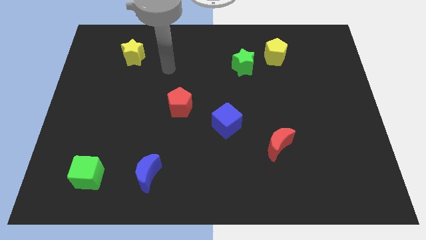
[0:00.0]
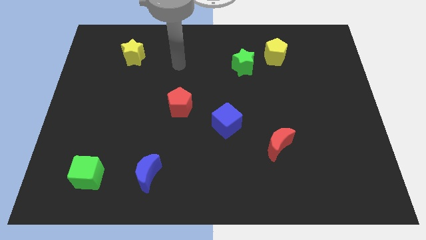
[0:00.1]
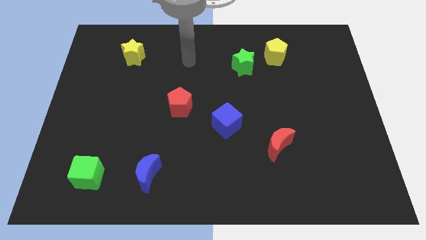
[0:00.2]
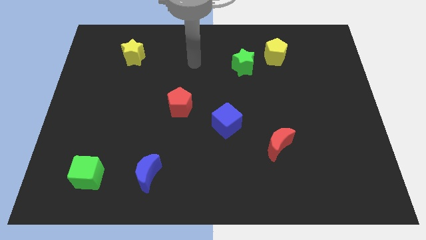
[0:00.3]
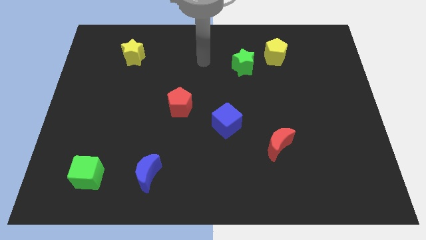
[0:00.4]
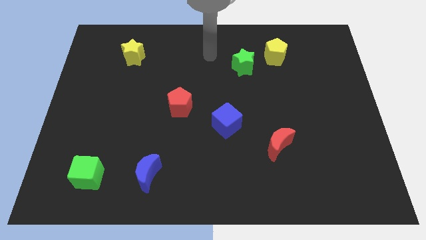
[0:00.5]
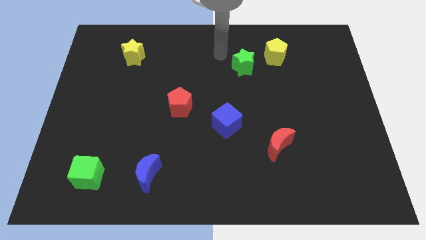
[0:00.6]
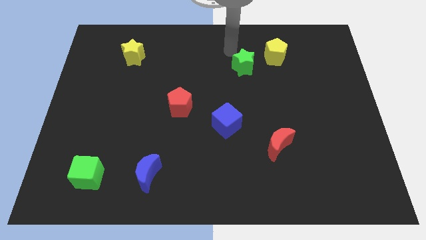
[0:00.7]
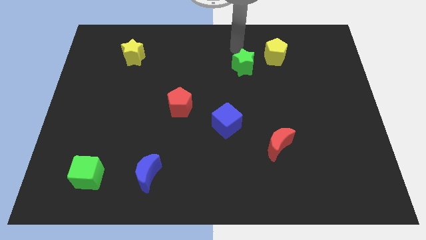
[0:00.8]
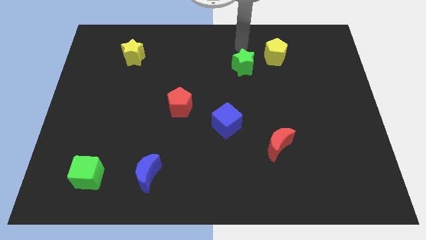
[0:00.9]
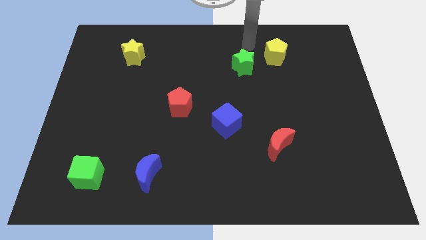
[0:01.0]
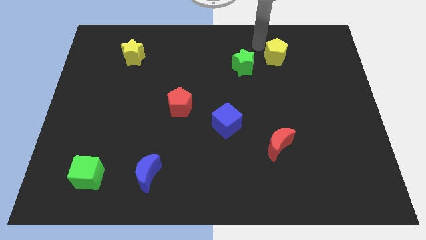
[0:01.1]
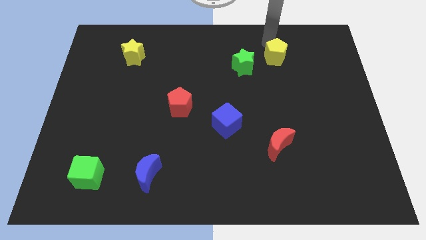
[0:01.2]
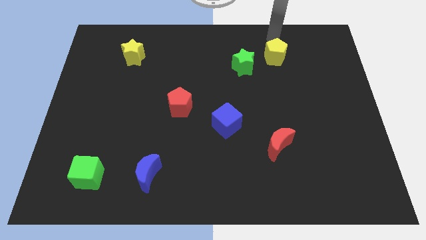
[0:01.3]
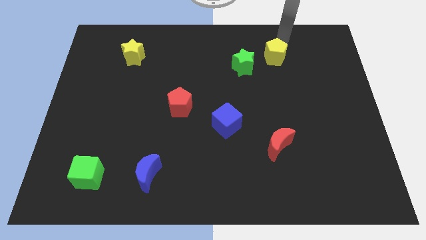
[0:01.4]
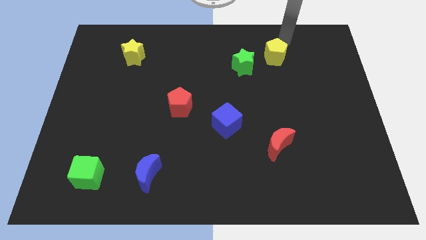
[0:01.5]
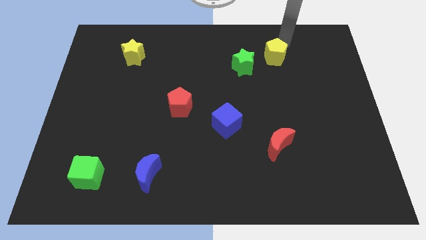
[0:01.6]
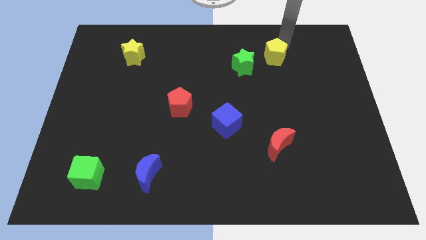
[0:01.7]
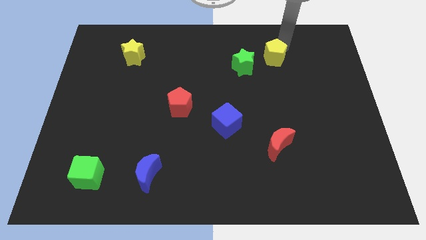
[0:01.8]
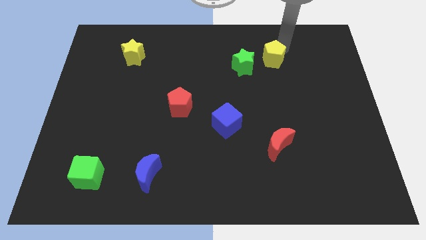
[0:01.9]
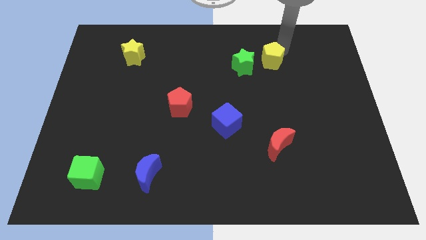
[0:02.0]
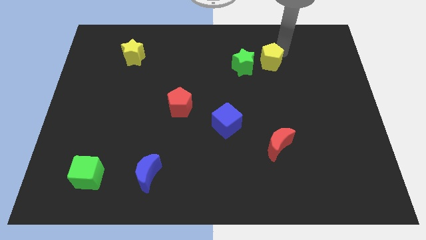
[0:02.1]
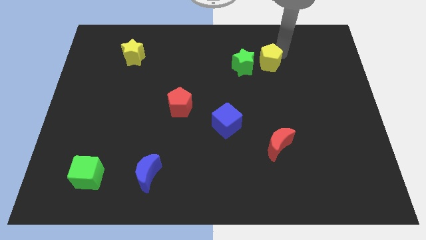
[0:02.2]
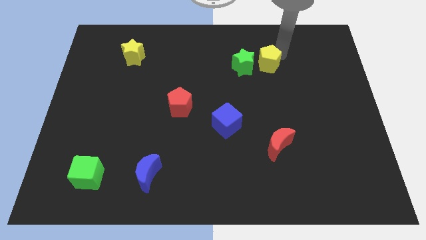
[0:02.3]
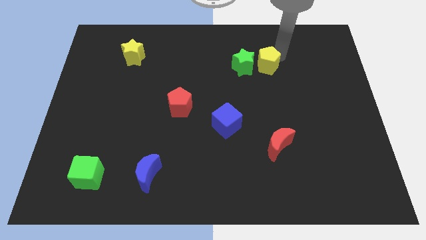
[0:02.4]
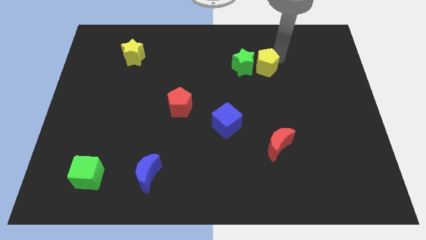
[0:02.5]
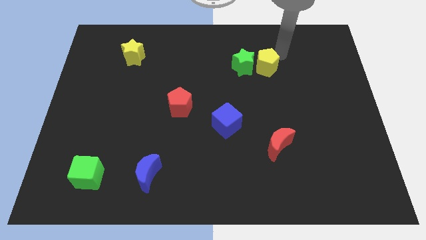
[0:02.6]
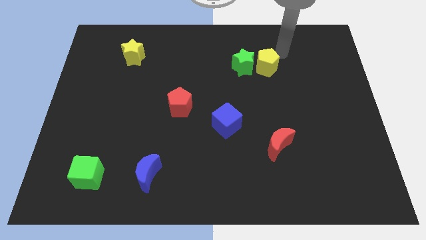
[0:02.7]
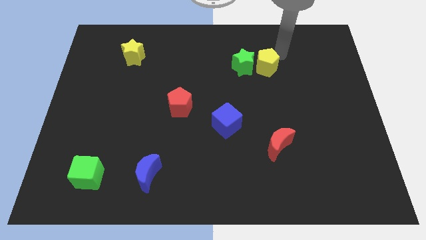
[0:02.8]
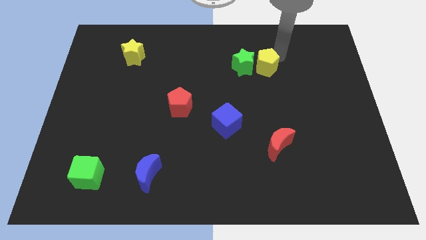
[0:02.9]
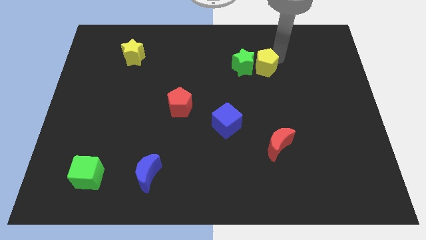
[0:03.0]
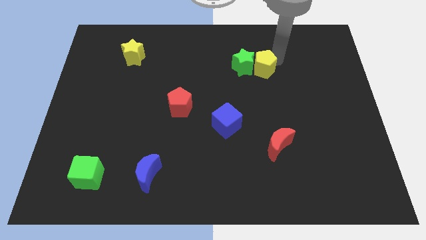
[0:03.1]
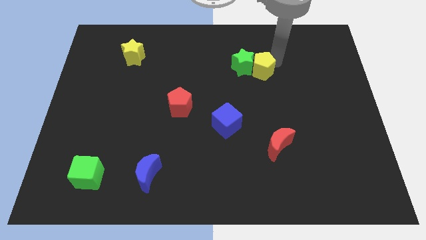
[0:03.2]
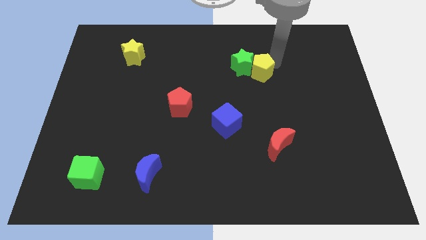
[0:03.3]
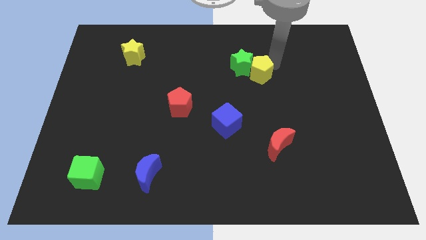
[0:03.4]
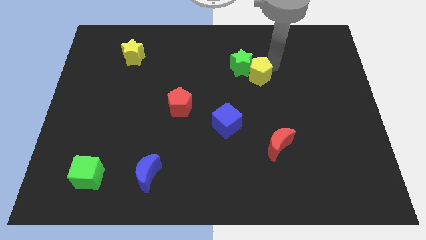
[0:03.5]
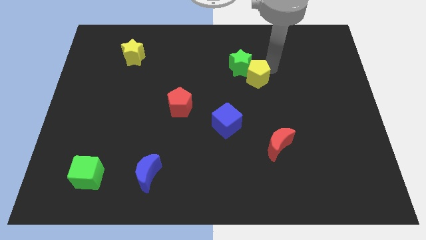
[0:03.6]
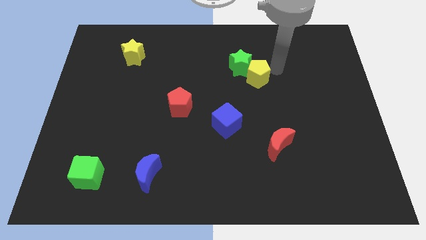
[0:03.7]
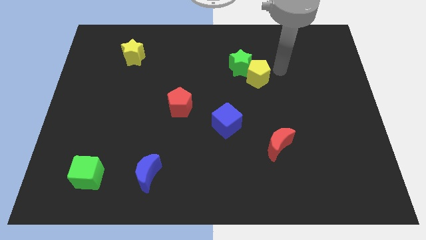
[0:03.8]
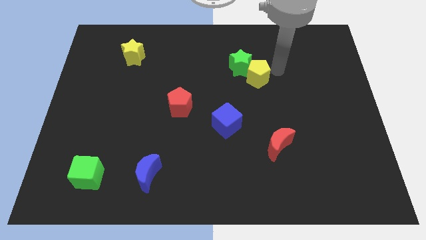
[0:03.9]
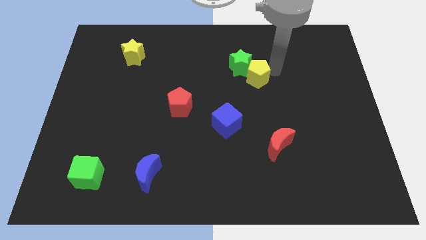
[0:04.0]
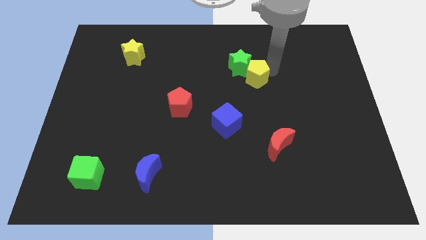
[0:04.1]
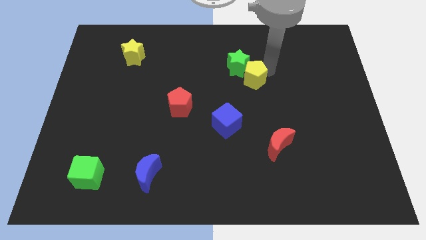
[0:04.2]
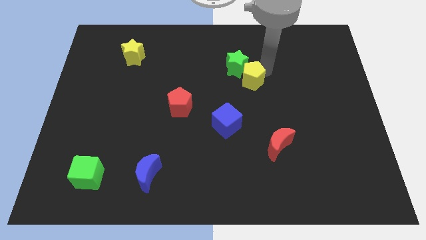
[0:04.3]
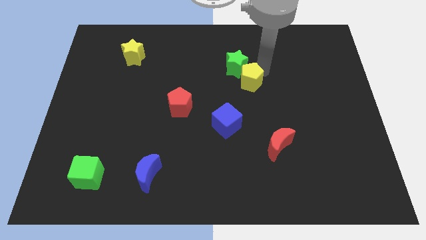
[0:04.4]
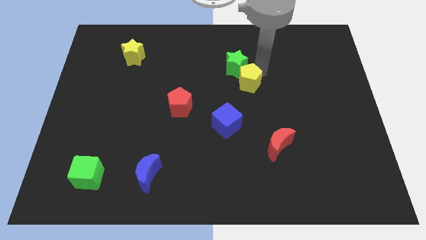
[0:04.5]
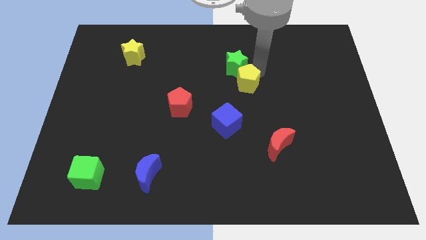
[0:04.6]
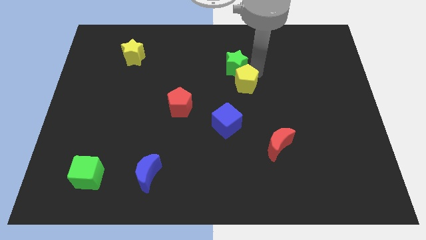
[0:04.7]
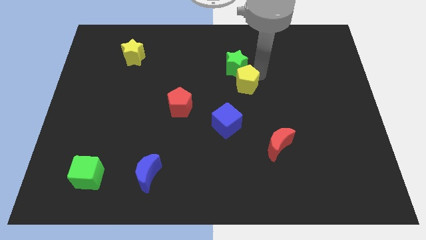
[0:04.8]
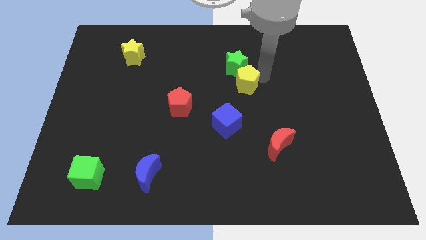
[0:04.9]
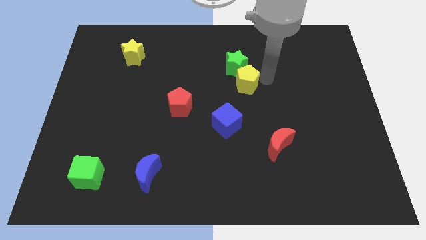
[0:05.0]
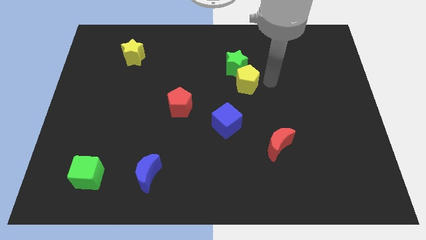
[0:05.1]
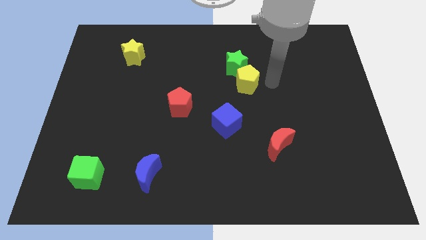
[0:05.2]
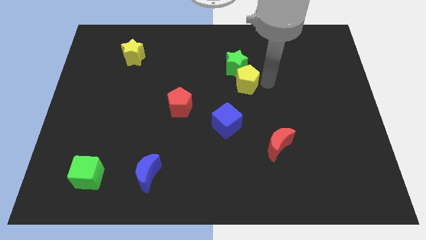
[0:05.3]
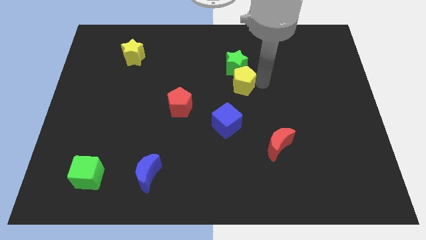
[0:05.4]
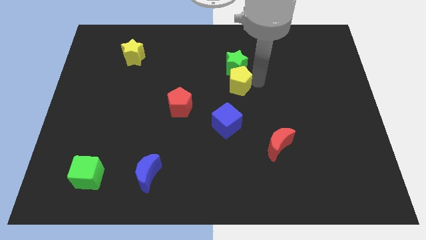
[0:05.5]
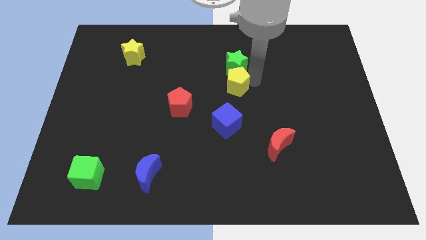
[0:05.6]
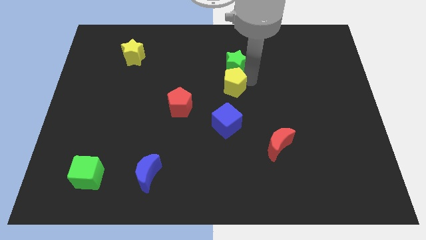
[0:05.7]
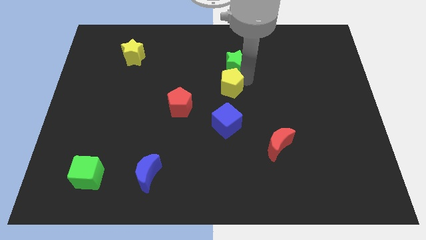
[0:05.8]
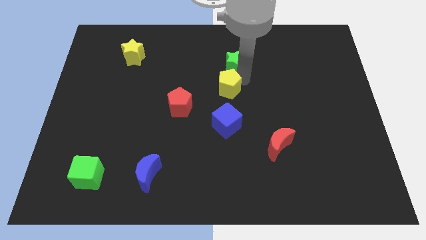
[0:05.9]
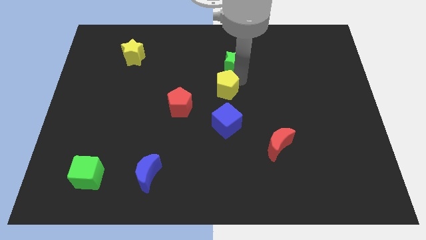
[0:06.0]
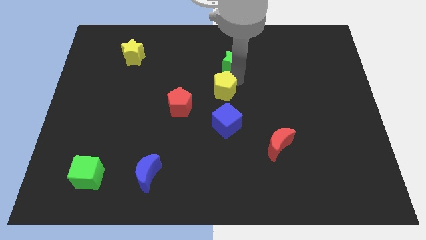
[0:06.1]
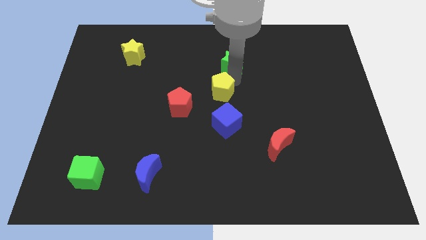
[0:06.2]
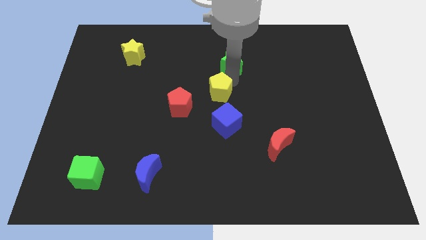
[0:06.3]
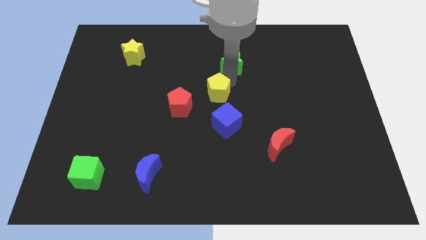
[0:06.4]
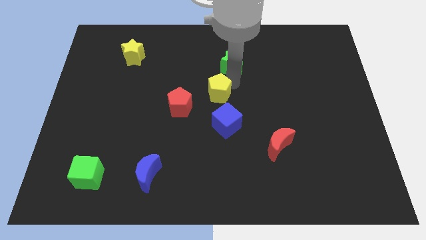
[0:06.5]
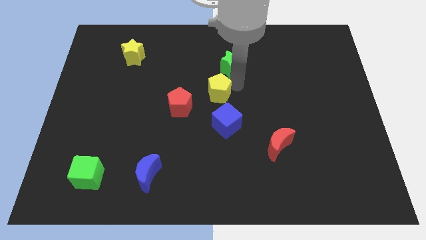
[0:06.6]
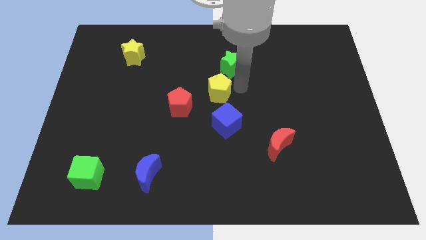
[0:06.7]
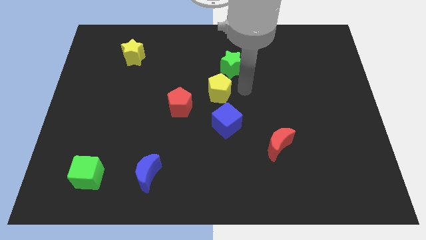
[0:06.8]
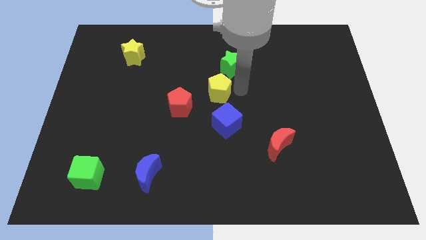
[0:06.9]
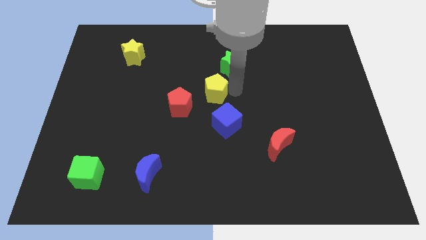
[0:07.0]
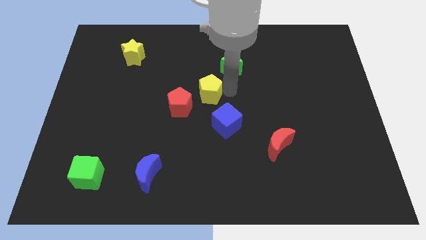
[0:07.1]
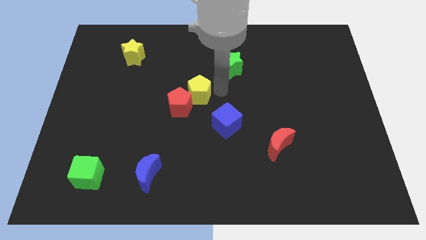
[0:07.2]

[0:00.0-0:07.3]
move the yellow pentagon close to the red pentagon
